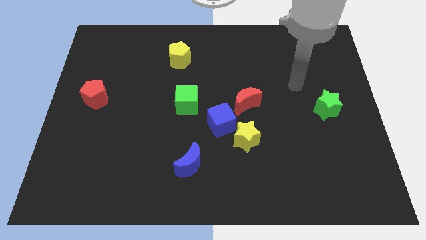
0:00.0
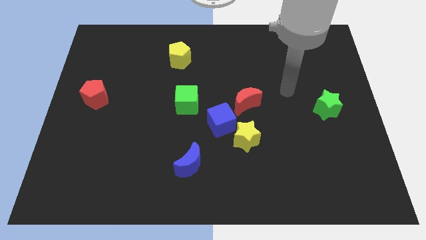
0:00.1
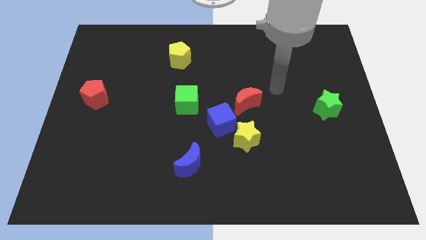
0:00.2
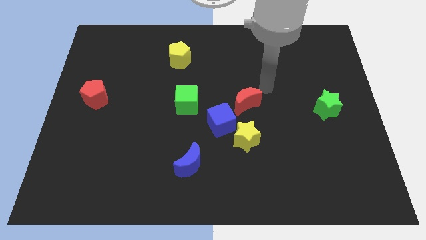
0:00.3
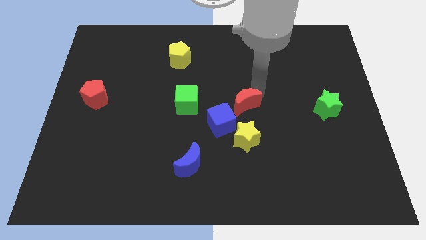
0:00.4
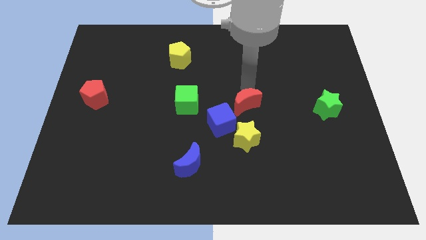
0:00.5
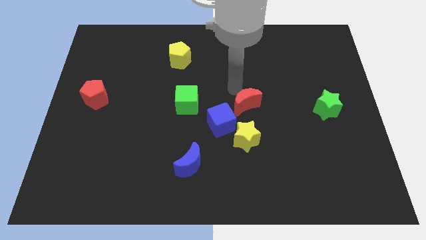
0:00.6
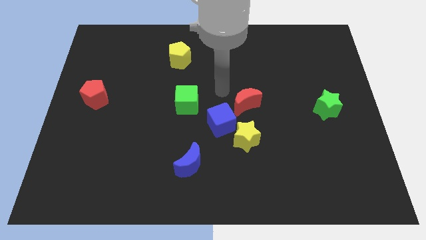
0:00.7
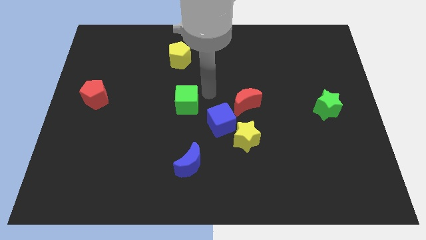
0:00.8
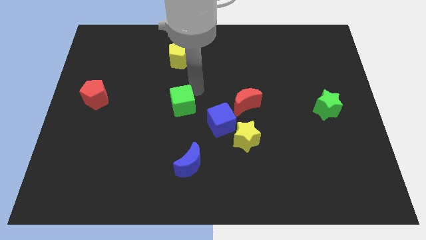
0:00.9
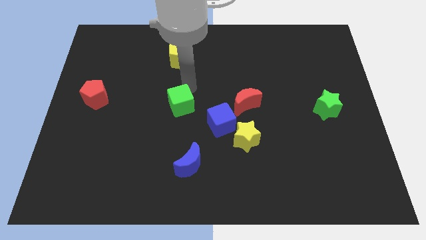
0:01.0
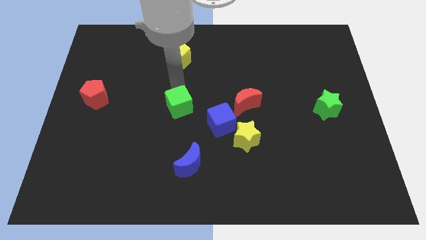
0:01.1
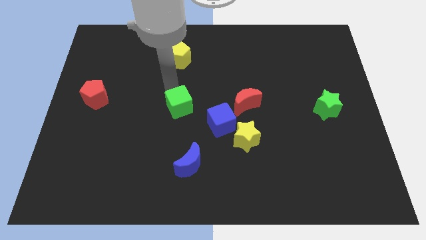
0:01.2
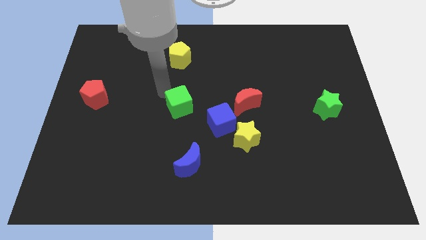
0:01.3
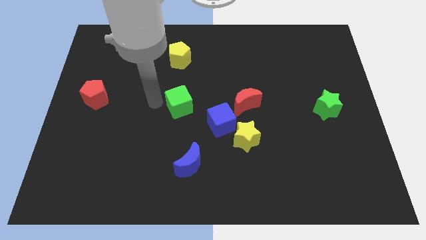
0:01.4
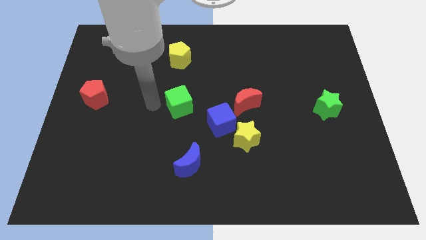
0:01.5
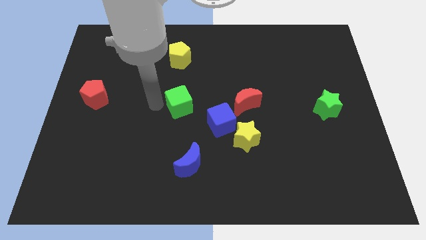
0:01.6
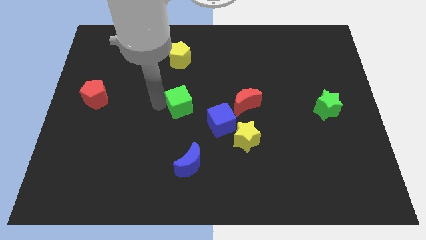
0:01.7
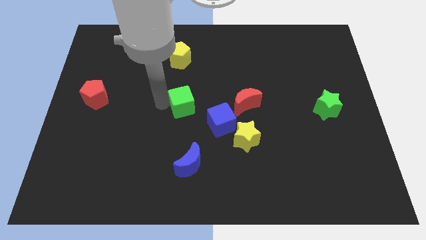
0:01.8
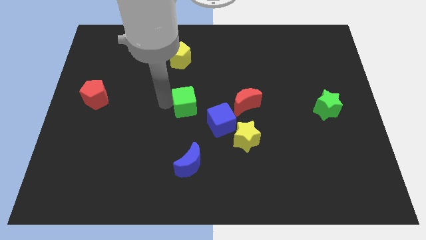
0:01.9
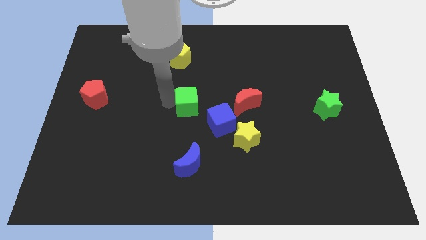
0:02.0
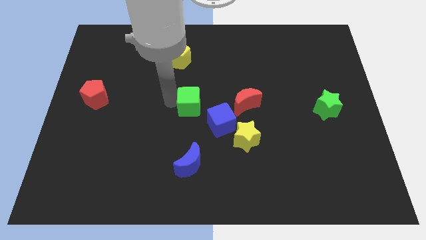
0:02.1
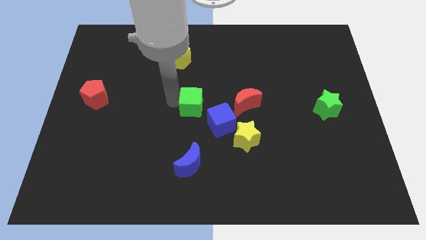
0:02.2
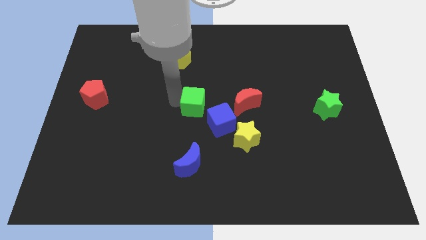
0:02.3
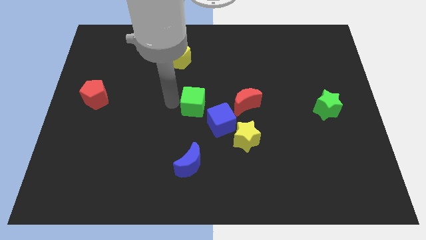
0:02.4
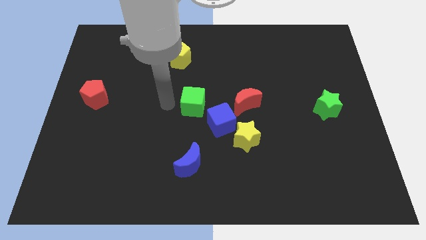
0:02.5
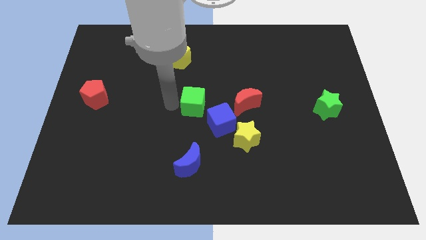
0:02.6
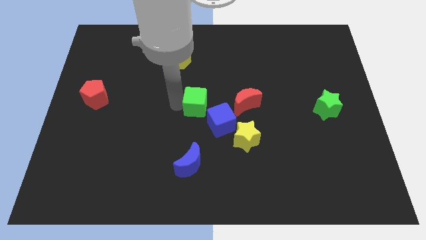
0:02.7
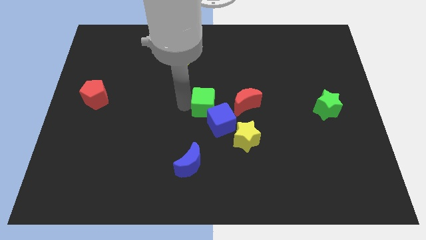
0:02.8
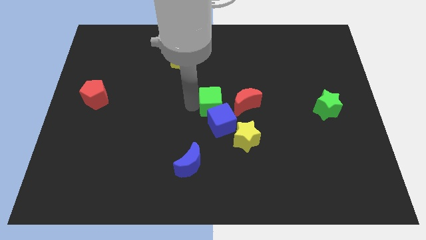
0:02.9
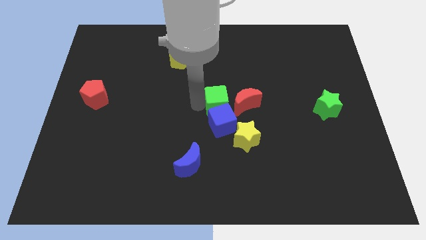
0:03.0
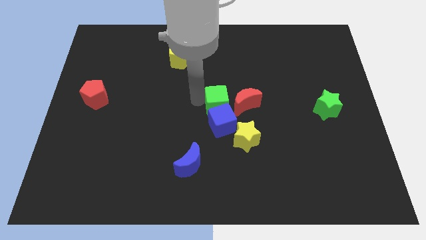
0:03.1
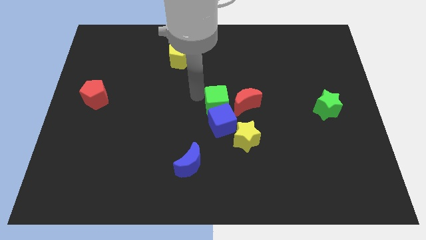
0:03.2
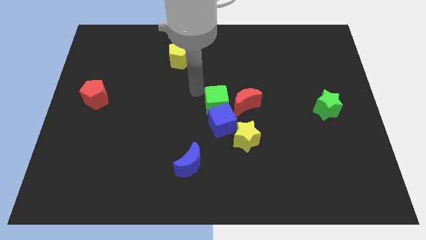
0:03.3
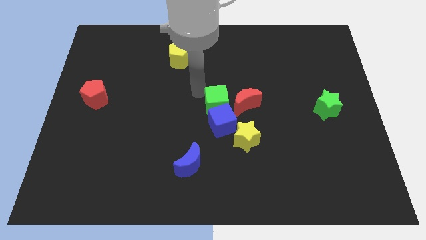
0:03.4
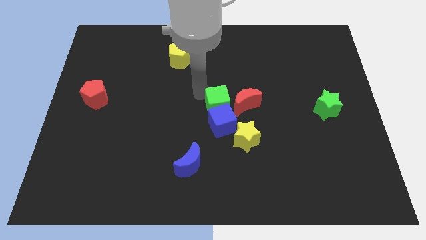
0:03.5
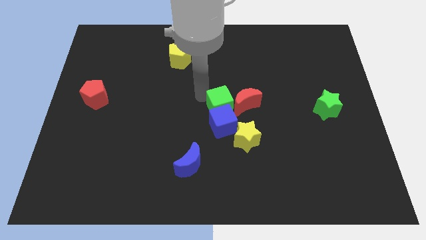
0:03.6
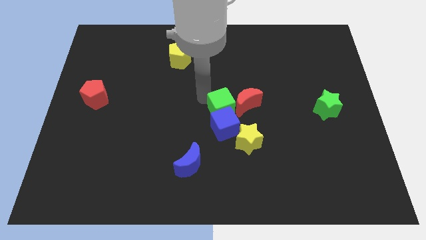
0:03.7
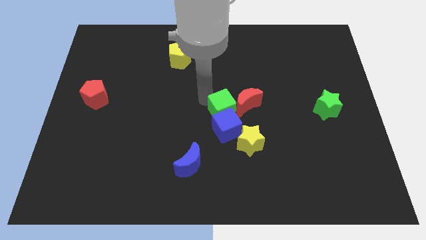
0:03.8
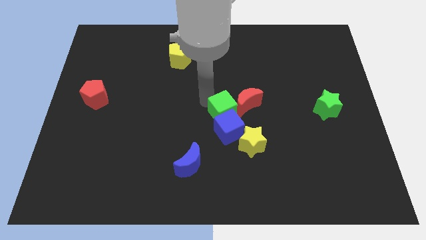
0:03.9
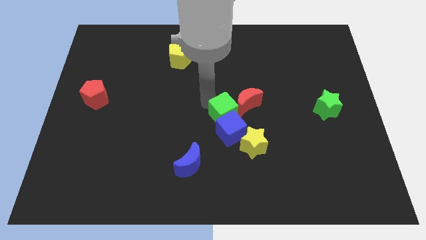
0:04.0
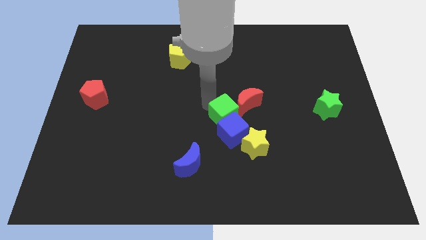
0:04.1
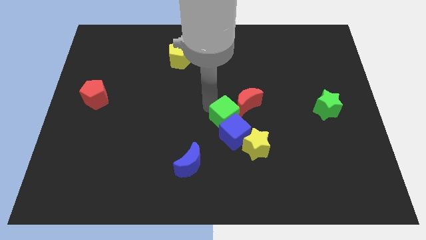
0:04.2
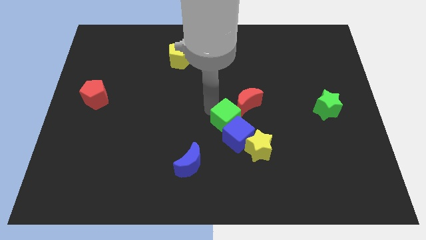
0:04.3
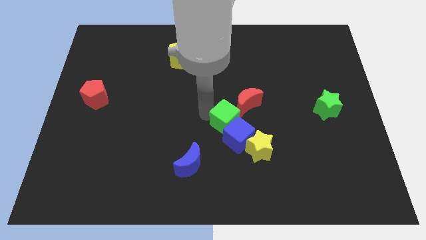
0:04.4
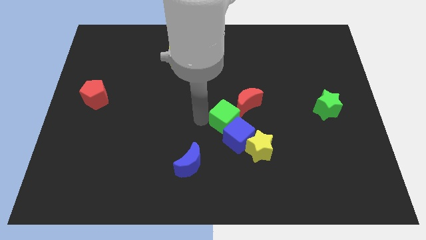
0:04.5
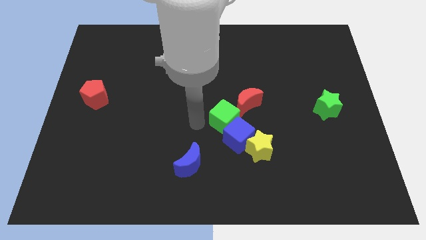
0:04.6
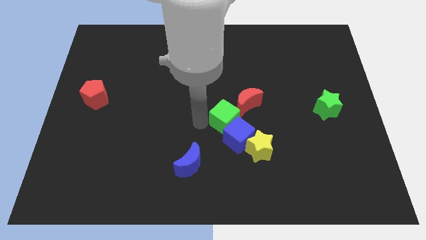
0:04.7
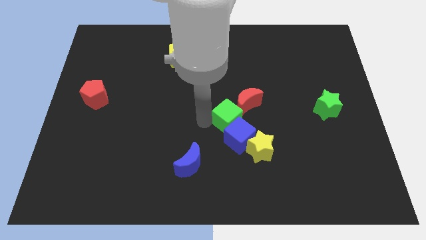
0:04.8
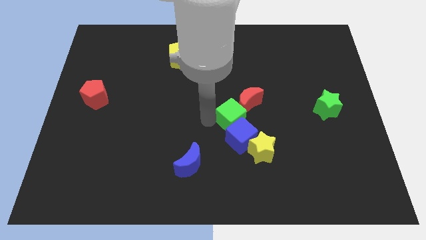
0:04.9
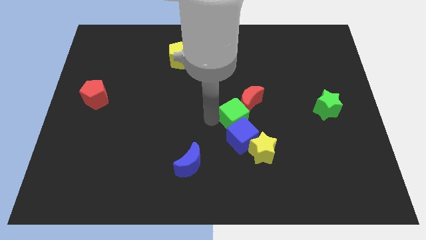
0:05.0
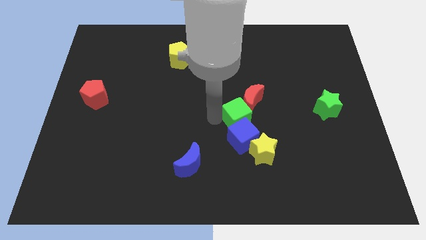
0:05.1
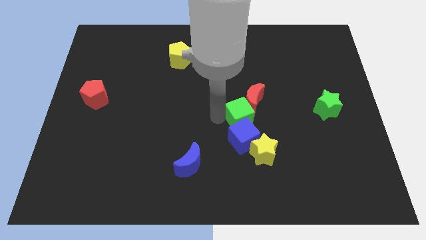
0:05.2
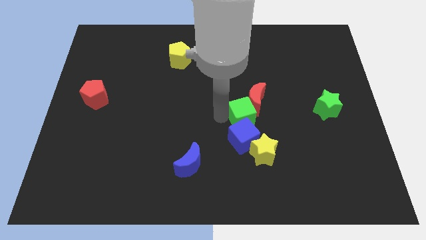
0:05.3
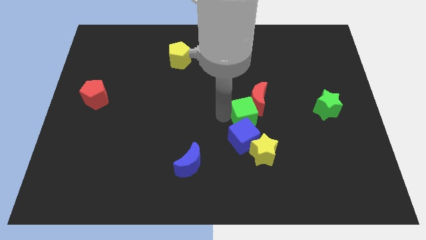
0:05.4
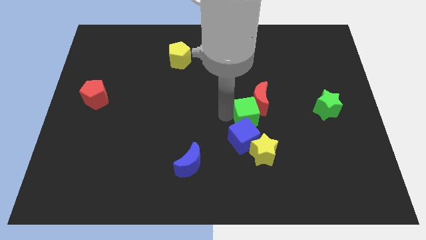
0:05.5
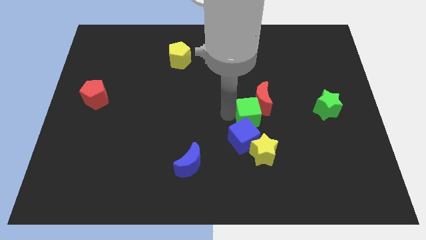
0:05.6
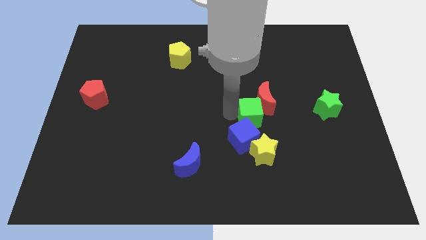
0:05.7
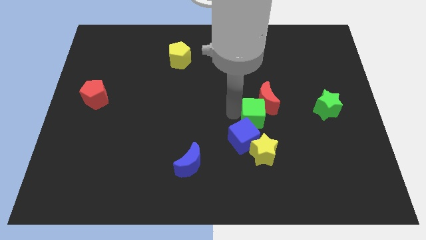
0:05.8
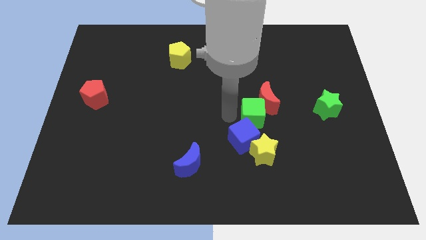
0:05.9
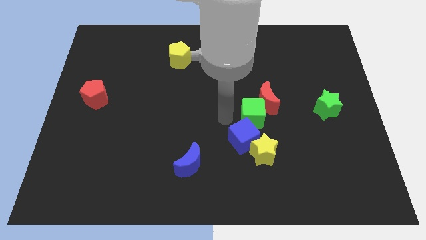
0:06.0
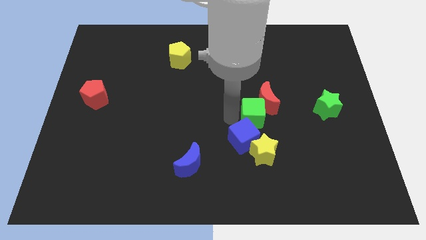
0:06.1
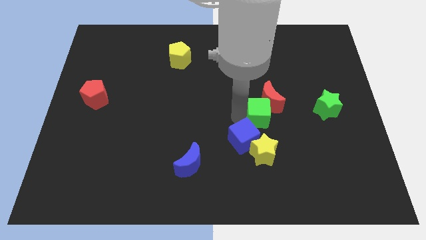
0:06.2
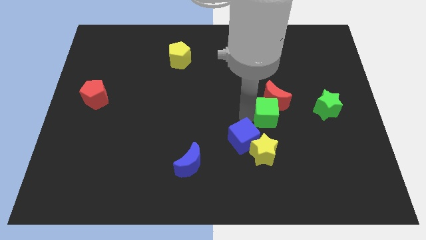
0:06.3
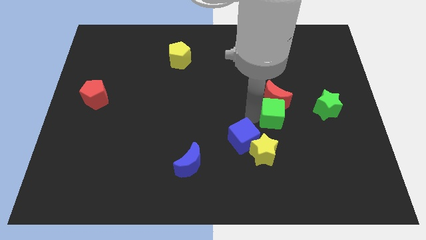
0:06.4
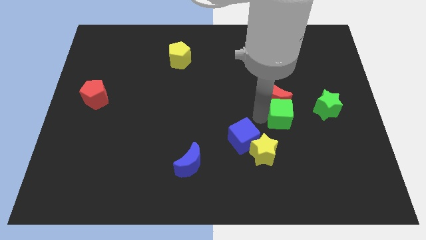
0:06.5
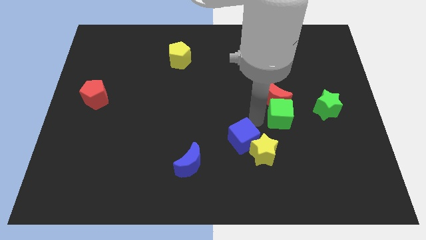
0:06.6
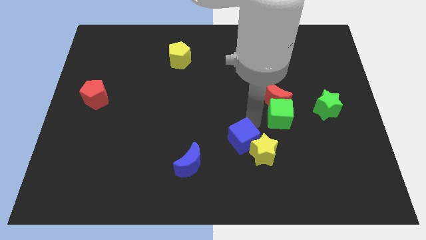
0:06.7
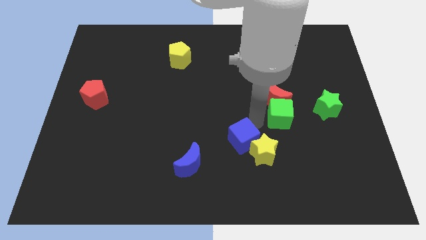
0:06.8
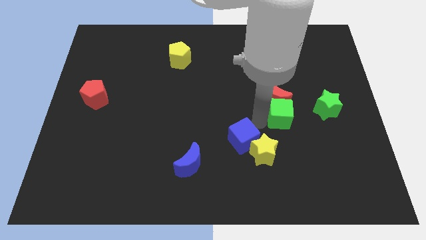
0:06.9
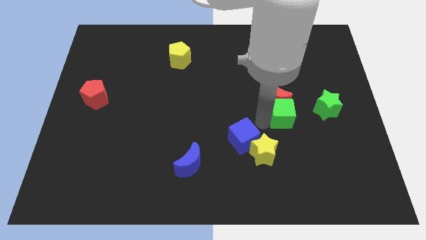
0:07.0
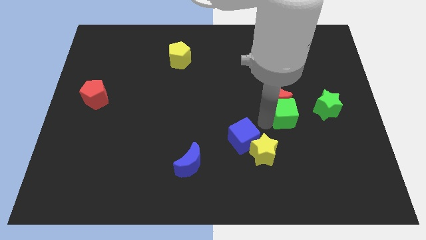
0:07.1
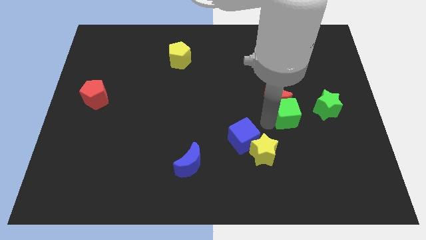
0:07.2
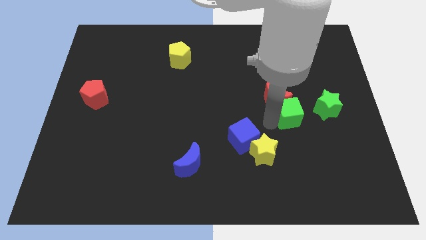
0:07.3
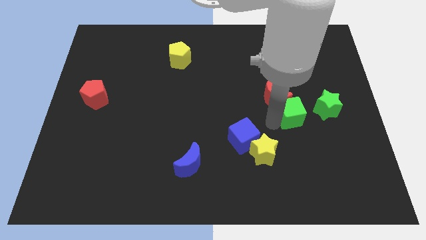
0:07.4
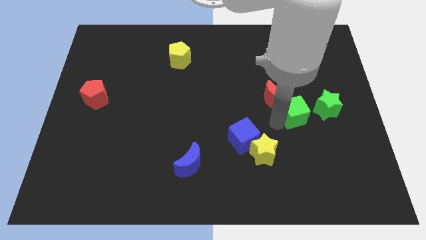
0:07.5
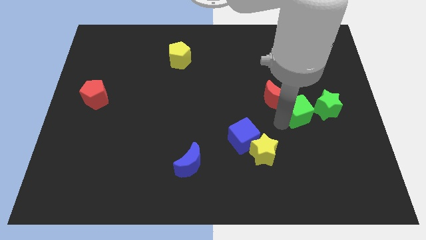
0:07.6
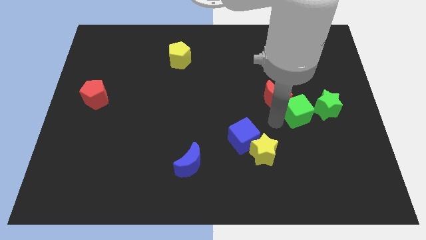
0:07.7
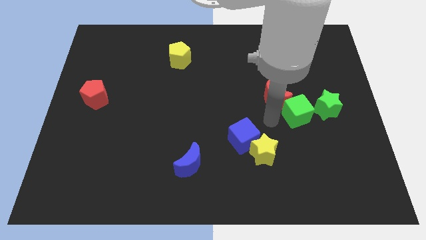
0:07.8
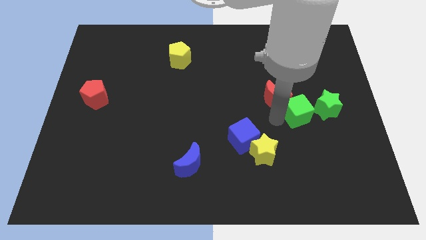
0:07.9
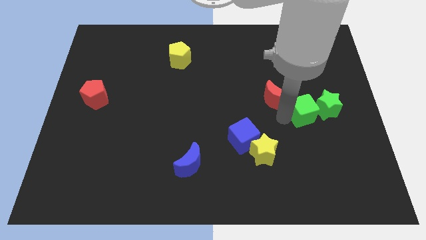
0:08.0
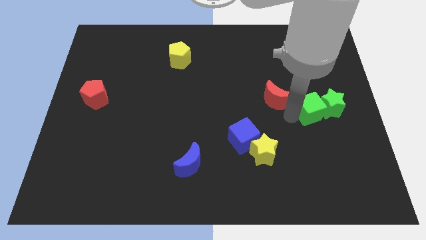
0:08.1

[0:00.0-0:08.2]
slide the green cube close to the green star
